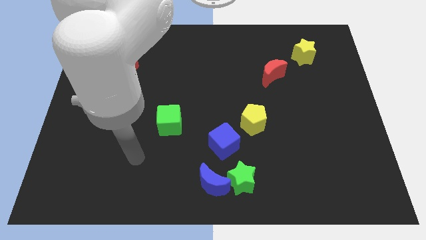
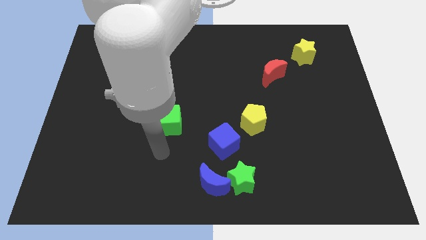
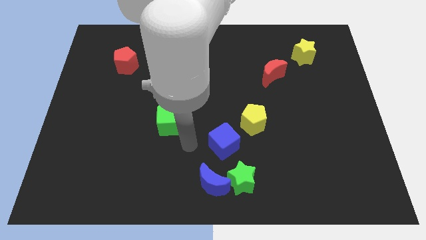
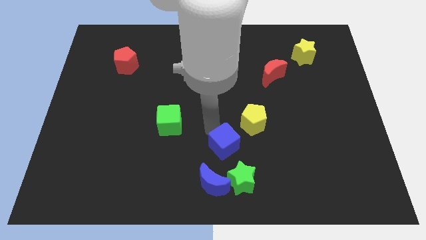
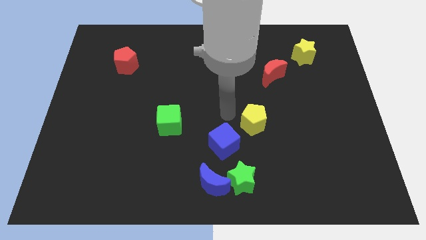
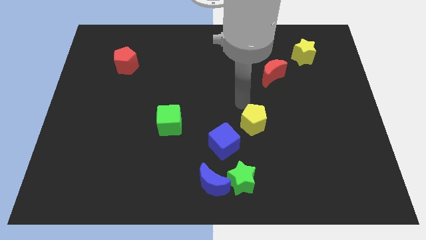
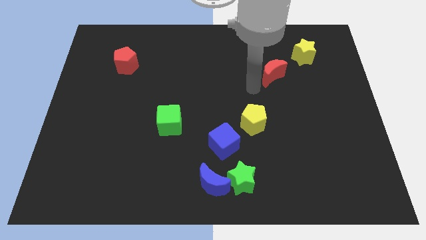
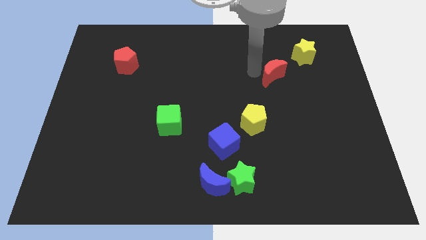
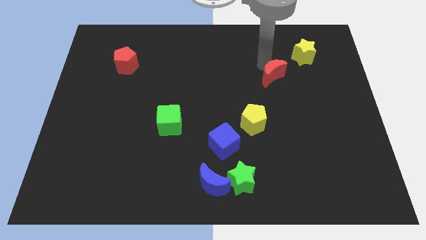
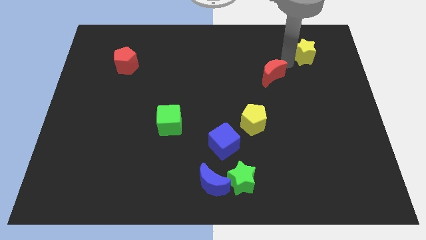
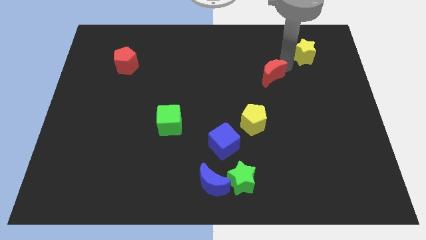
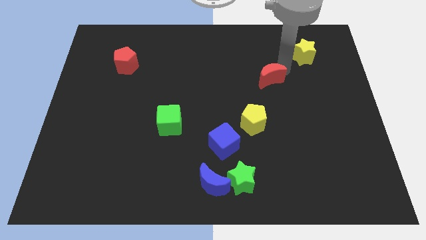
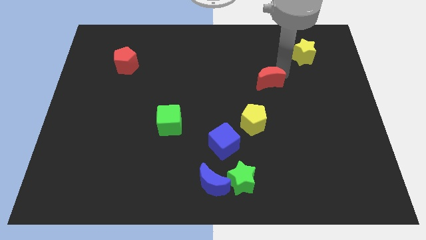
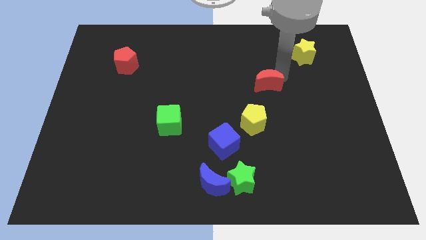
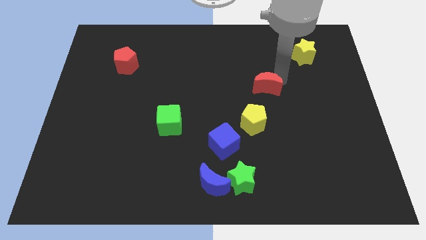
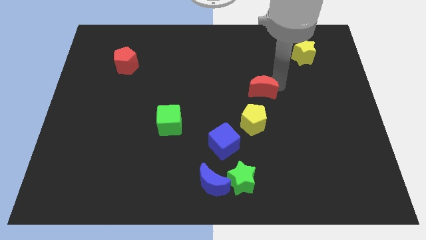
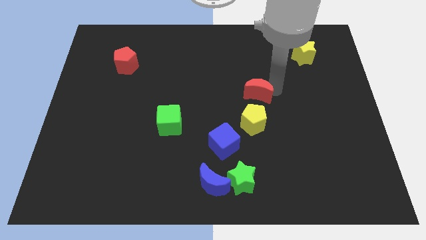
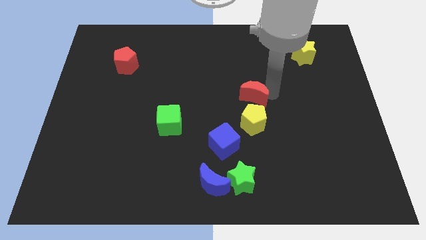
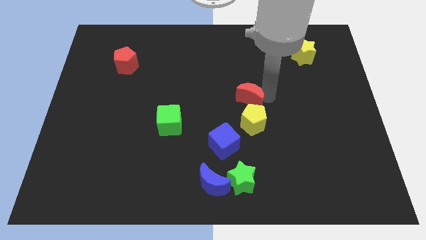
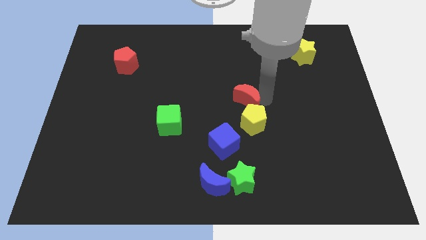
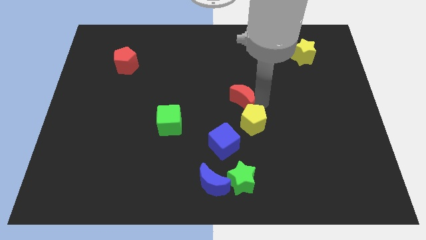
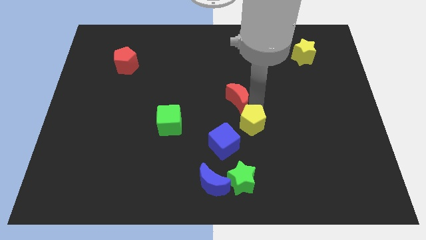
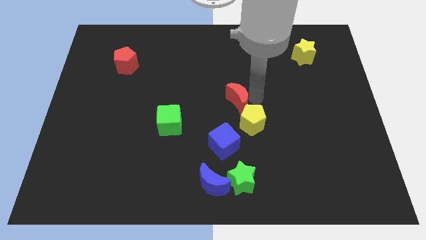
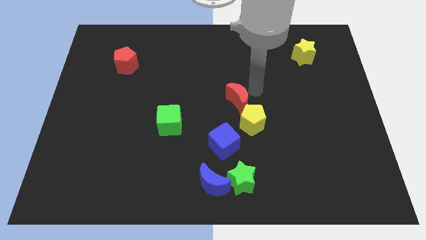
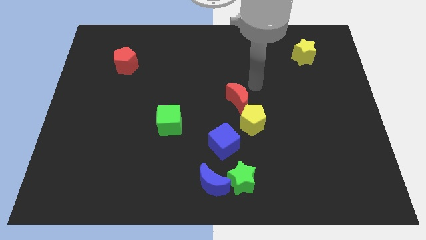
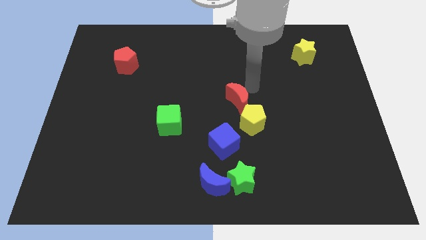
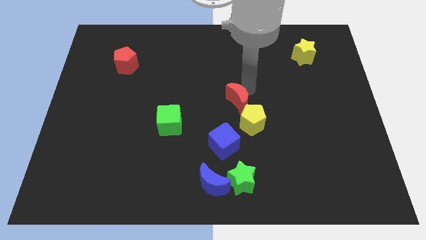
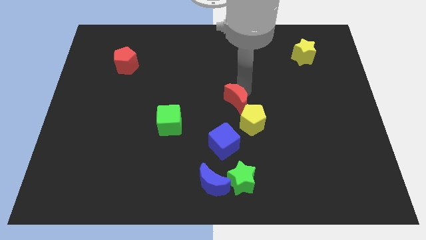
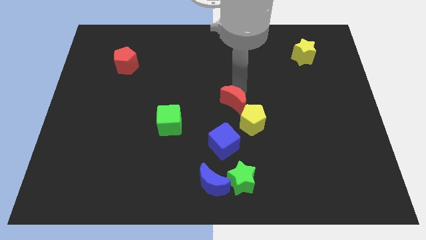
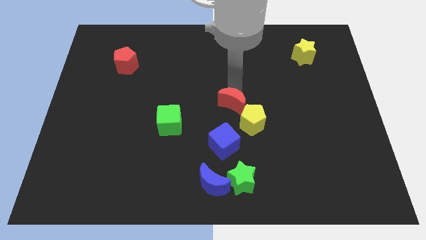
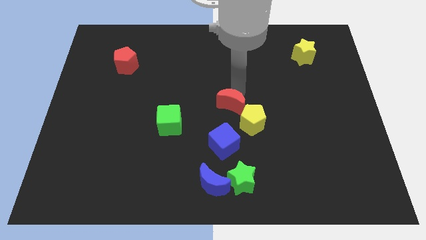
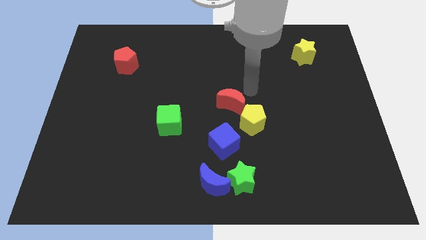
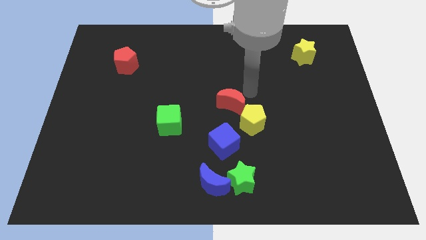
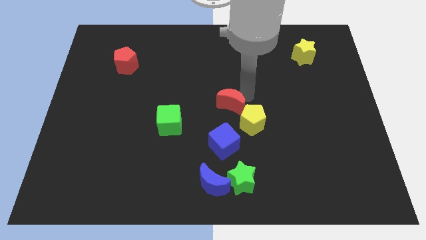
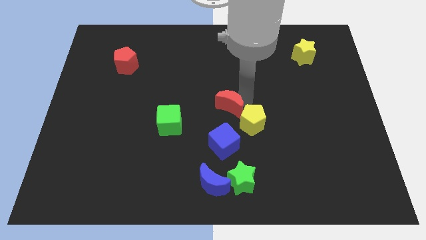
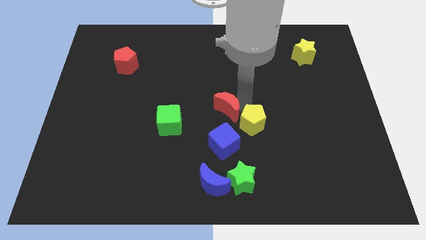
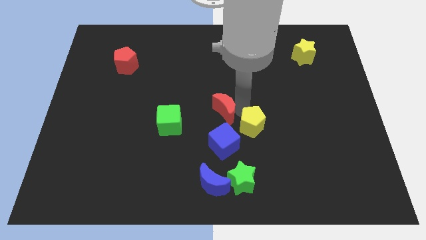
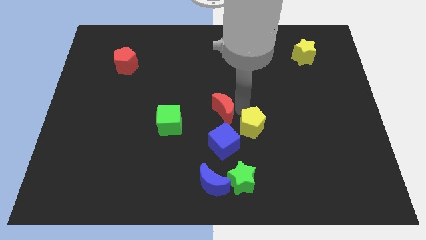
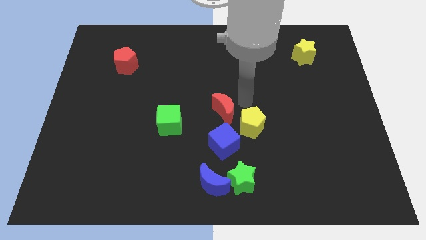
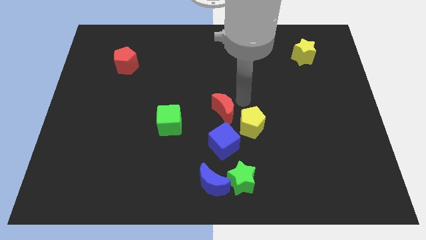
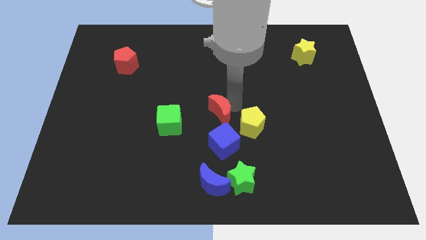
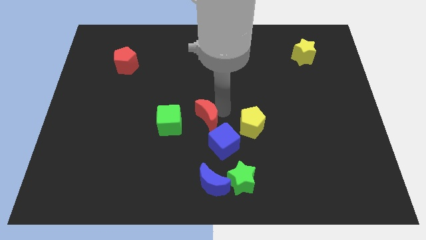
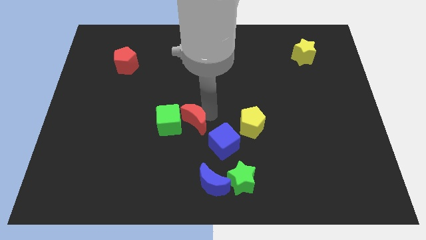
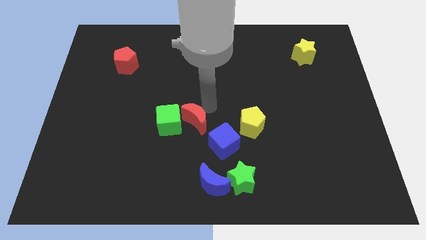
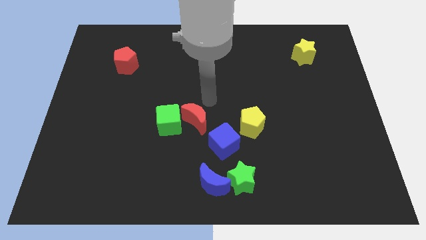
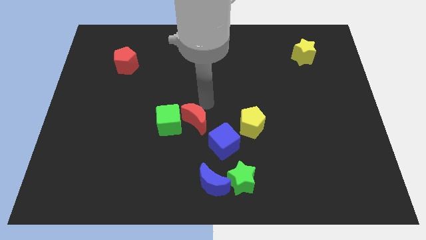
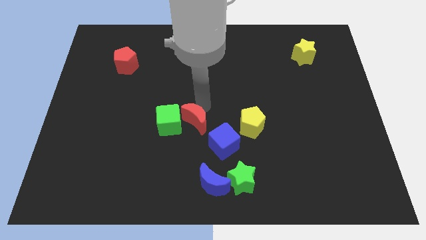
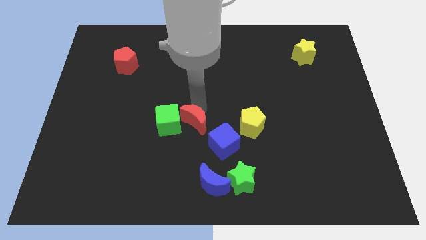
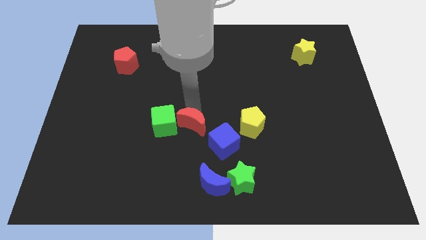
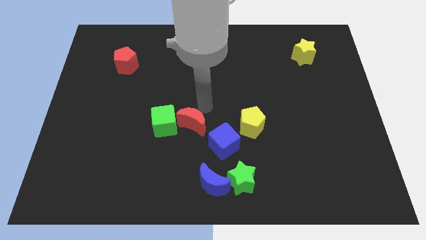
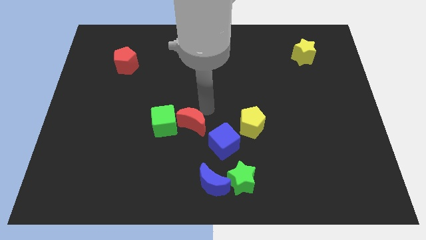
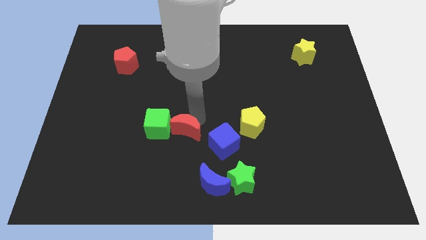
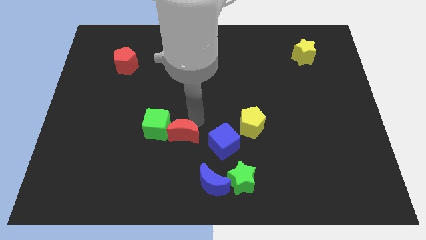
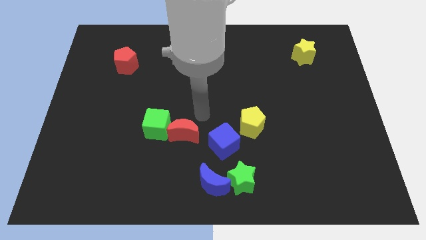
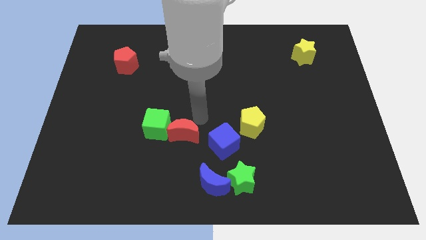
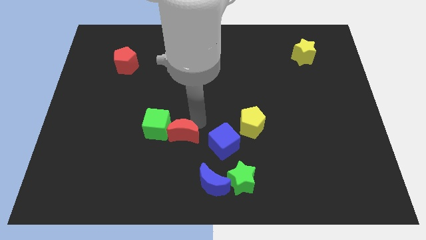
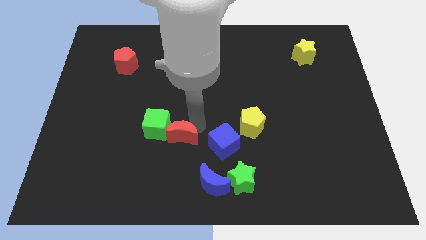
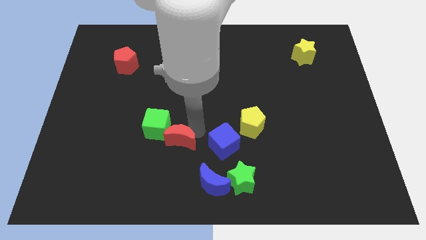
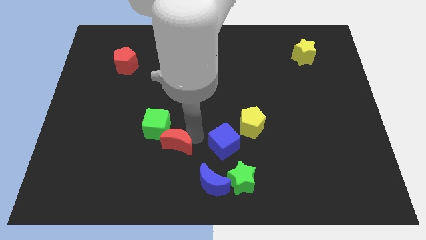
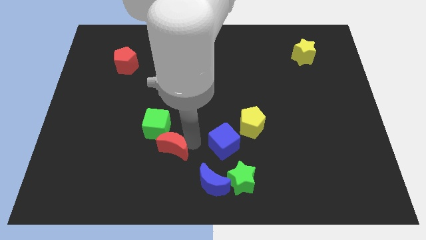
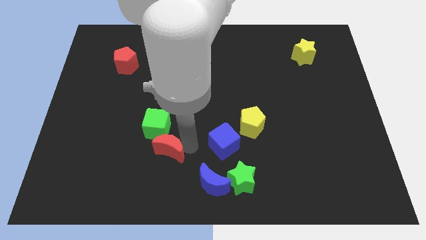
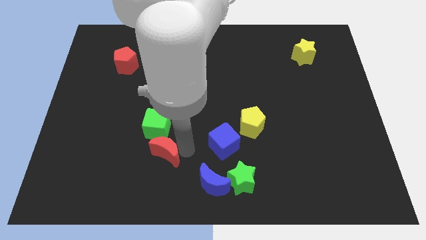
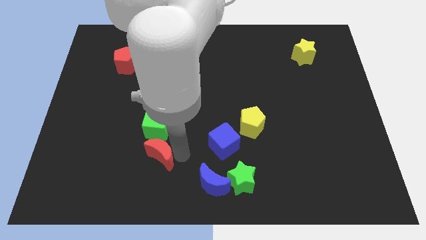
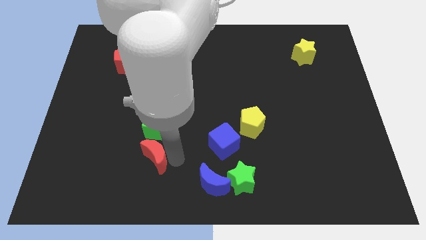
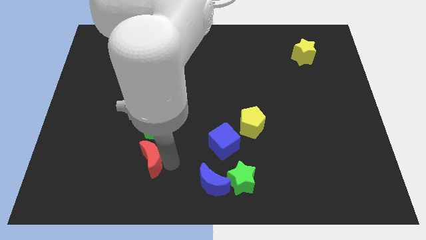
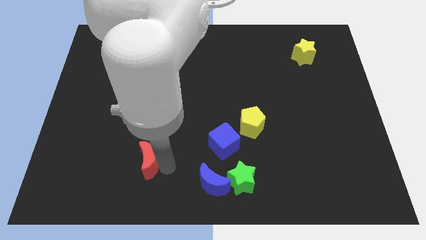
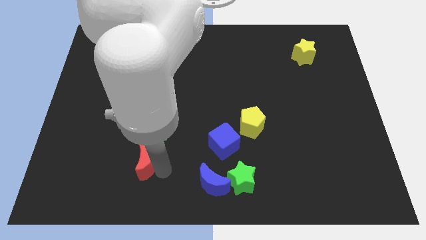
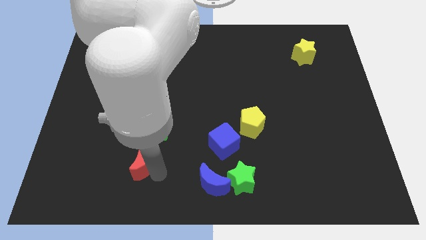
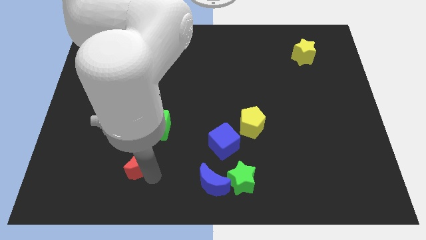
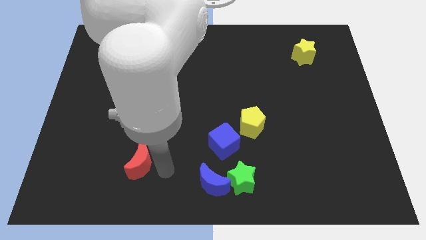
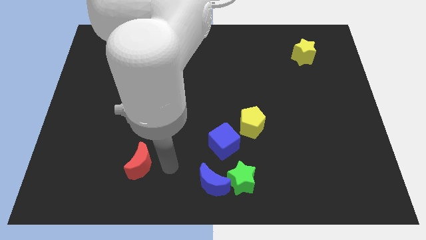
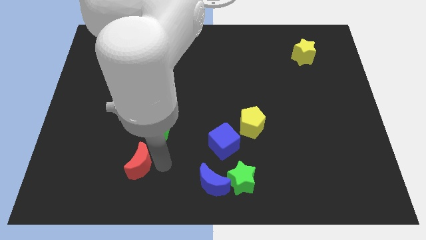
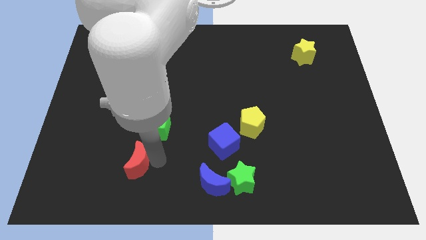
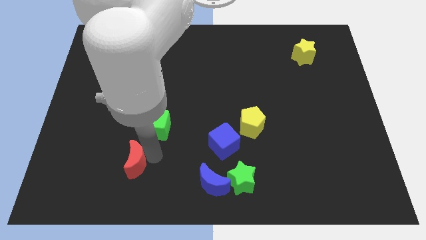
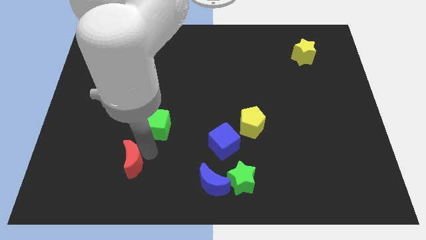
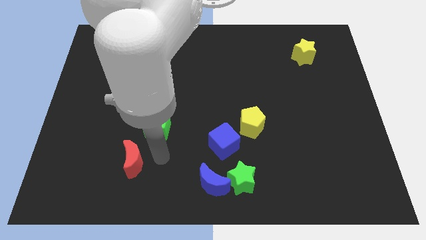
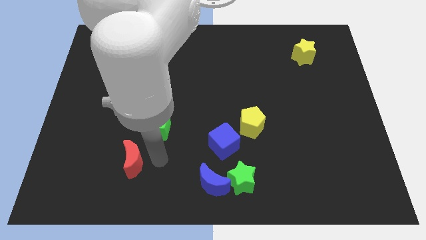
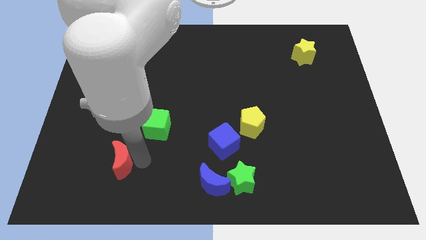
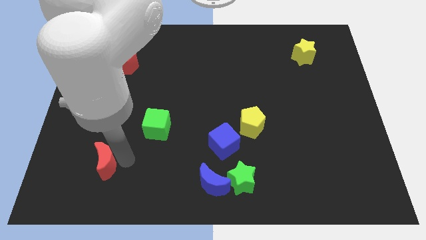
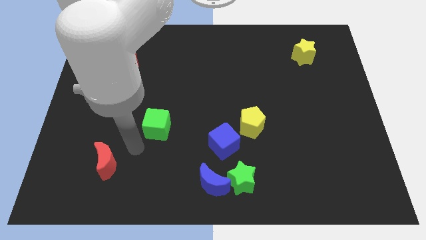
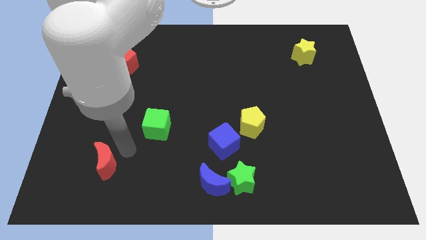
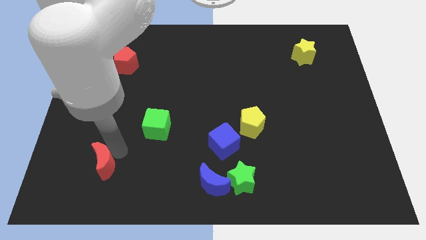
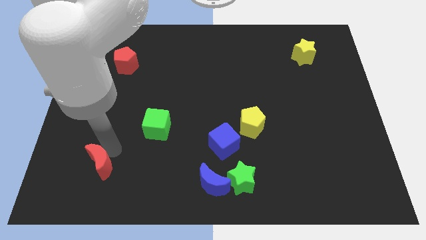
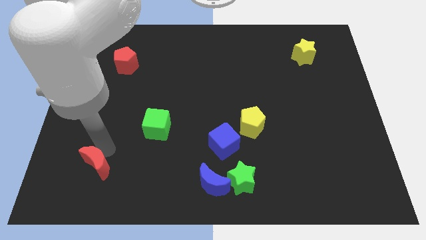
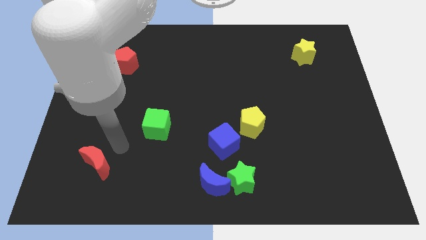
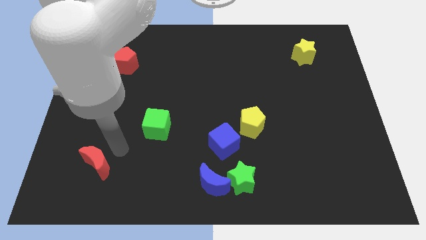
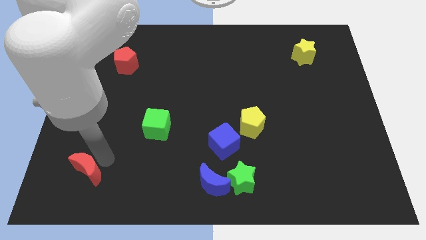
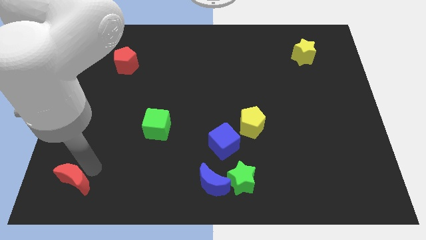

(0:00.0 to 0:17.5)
put the red moon to the bottom left
